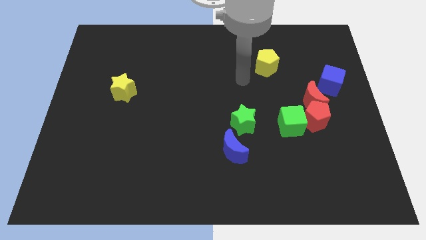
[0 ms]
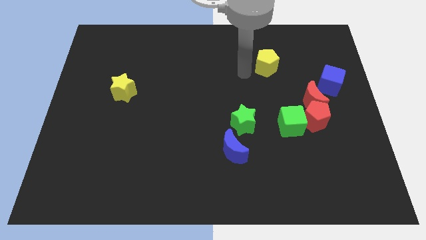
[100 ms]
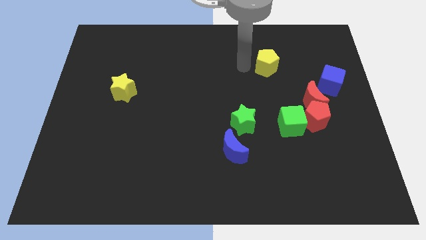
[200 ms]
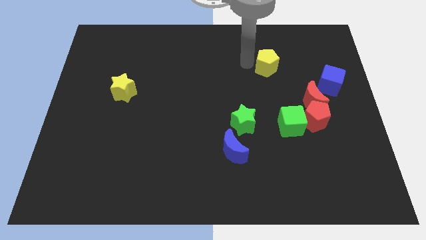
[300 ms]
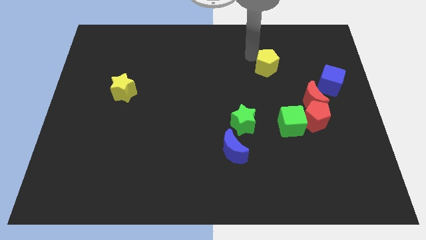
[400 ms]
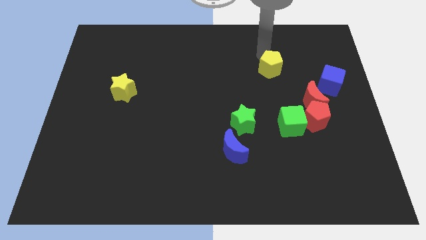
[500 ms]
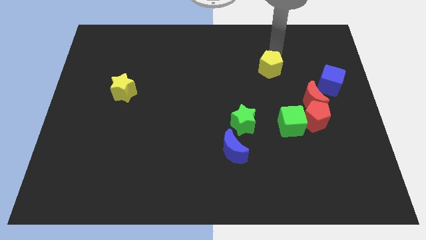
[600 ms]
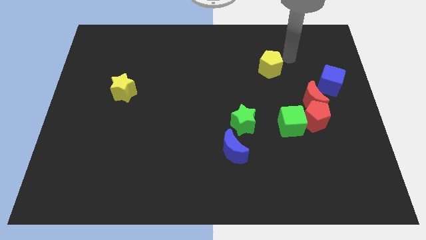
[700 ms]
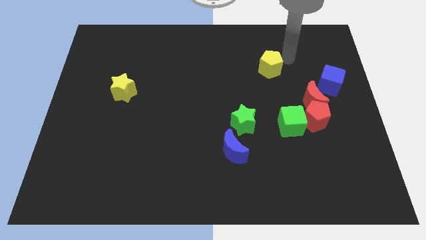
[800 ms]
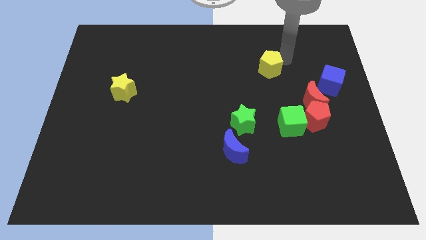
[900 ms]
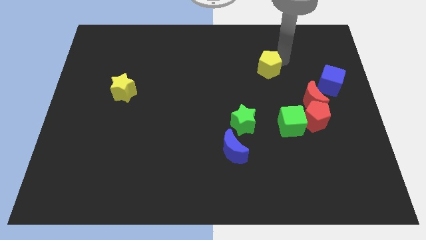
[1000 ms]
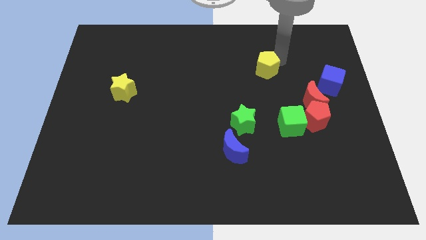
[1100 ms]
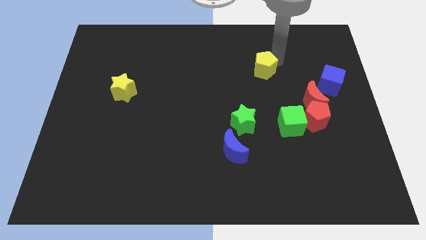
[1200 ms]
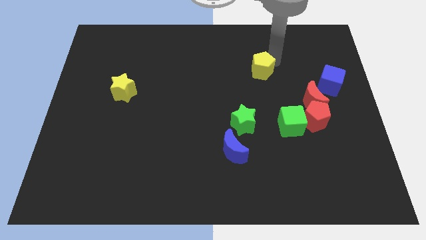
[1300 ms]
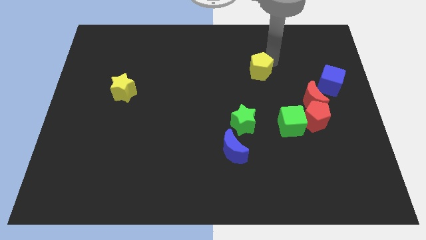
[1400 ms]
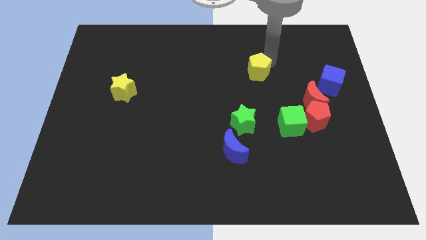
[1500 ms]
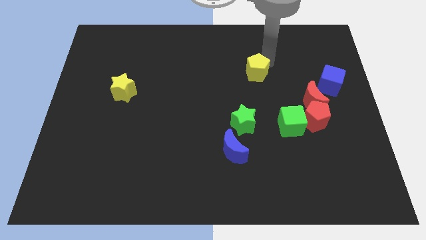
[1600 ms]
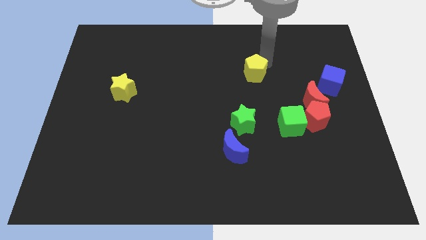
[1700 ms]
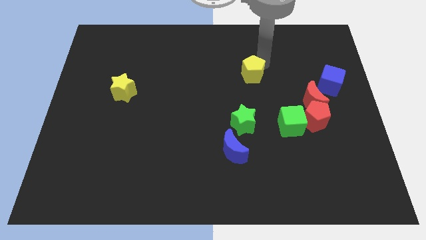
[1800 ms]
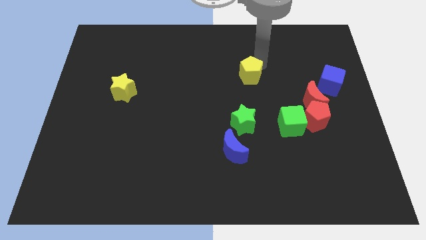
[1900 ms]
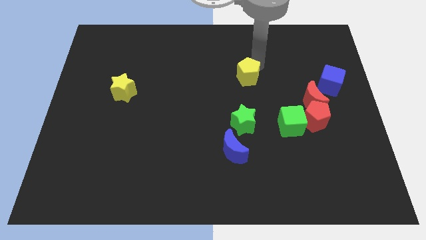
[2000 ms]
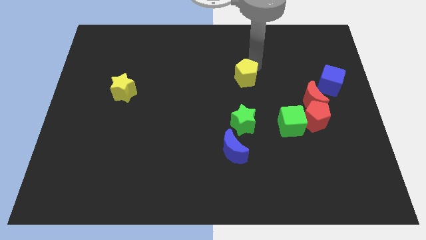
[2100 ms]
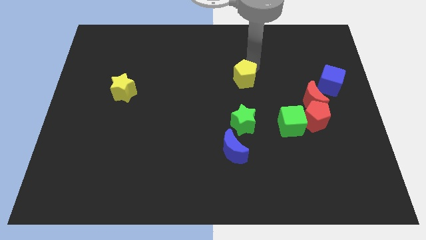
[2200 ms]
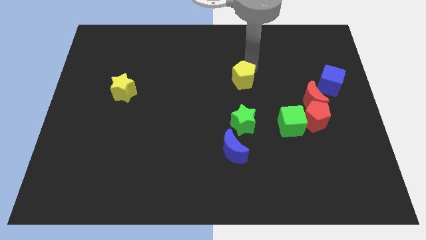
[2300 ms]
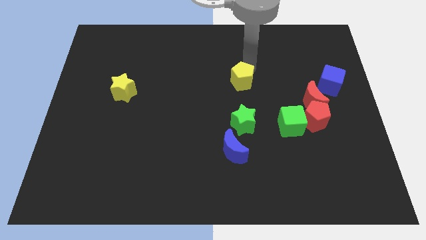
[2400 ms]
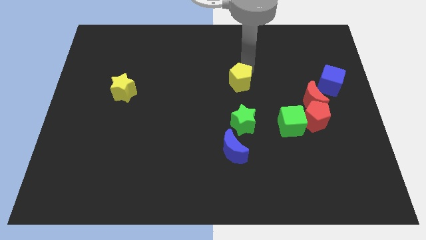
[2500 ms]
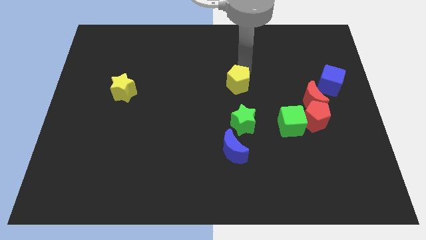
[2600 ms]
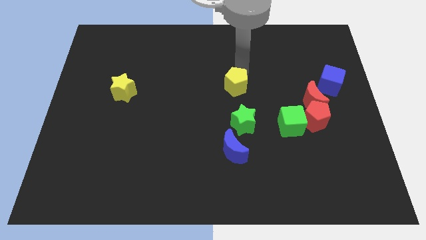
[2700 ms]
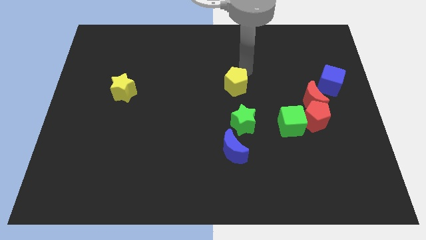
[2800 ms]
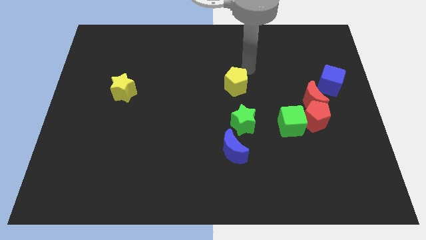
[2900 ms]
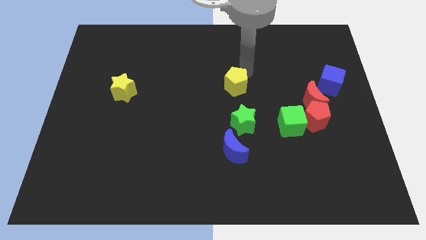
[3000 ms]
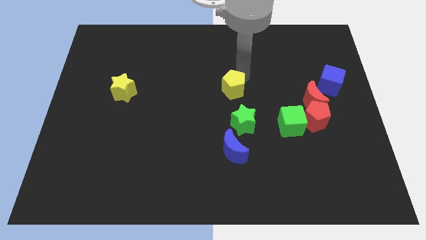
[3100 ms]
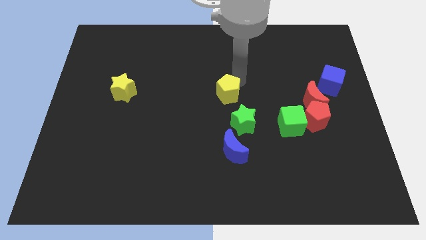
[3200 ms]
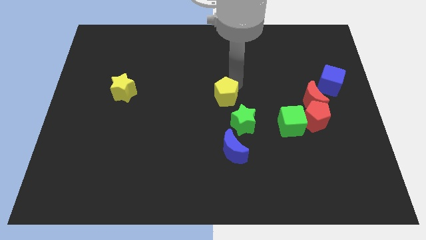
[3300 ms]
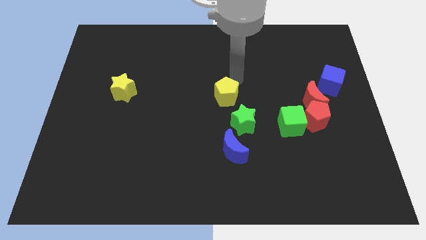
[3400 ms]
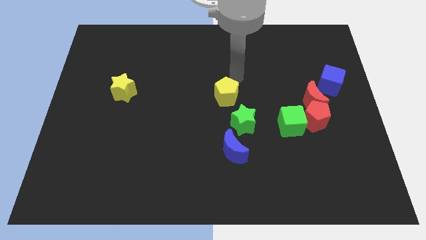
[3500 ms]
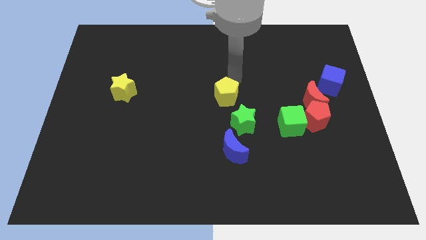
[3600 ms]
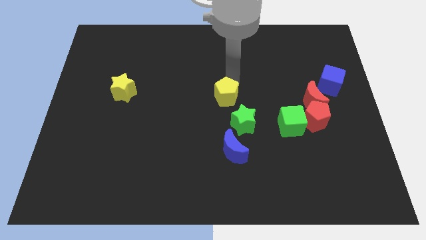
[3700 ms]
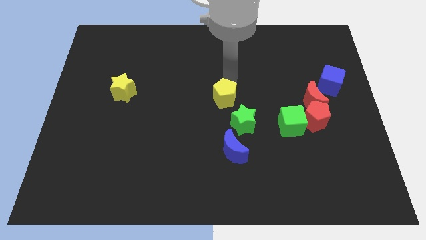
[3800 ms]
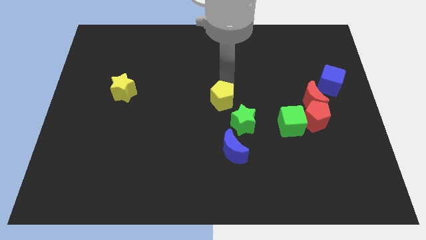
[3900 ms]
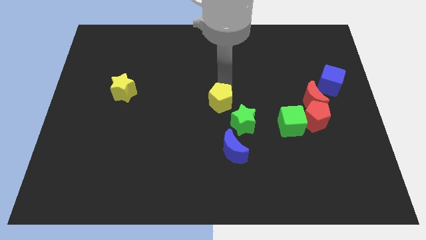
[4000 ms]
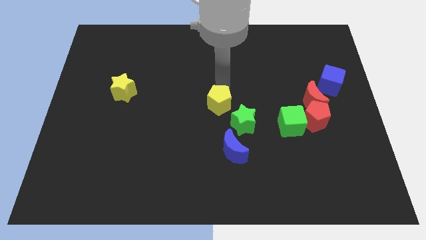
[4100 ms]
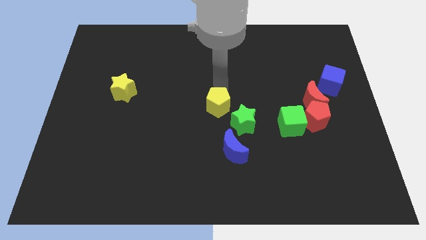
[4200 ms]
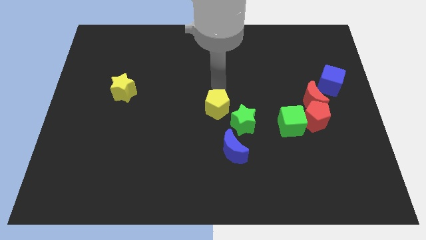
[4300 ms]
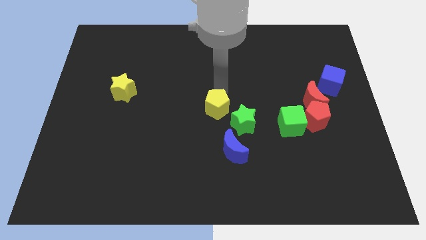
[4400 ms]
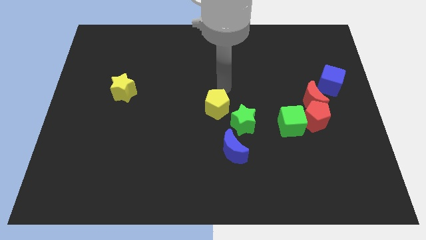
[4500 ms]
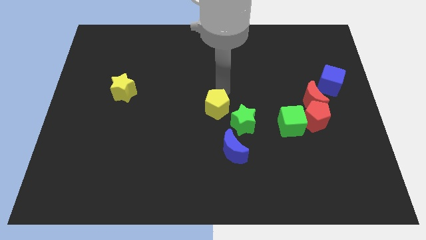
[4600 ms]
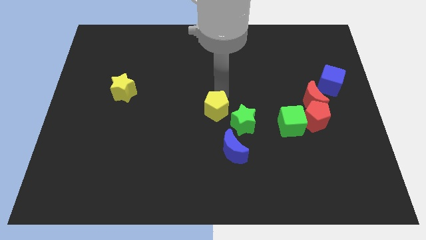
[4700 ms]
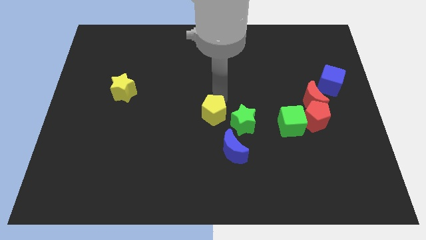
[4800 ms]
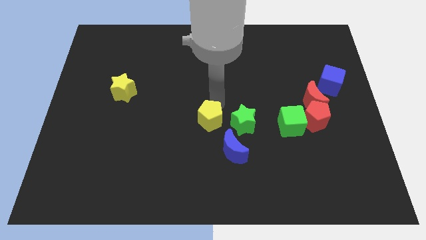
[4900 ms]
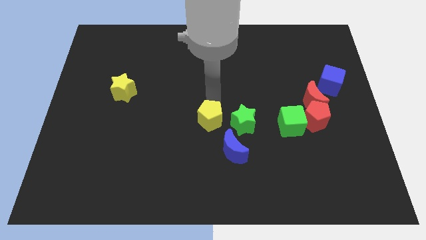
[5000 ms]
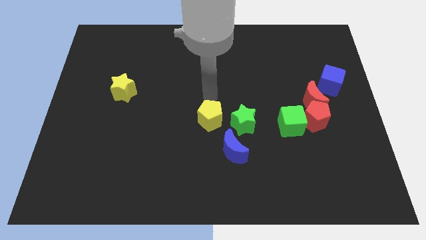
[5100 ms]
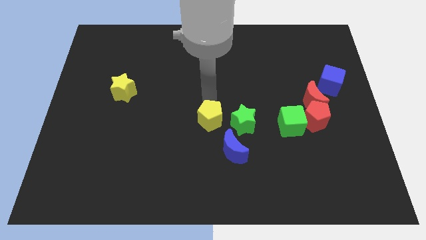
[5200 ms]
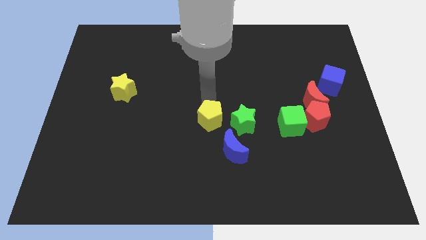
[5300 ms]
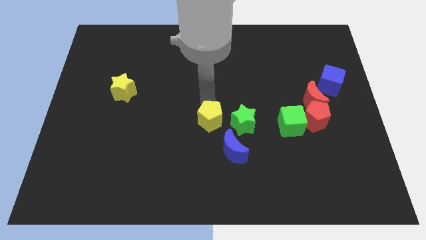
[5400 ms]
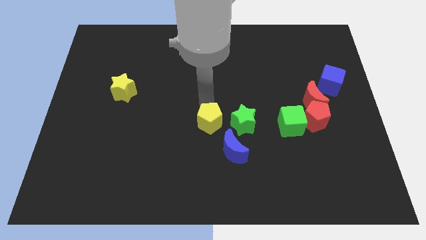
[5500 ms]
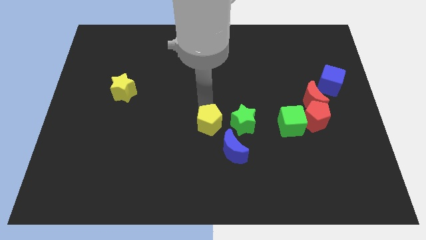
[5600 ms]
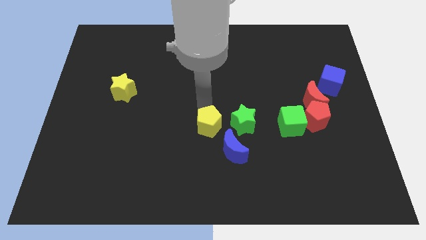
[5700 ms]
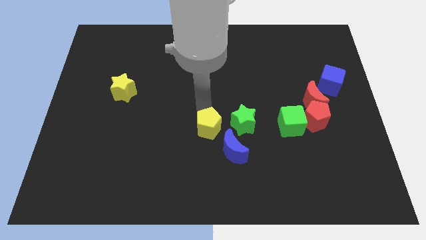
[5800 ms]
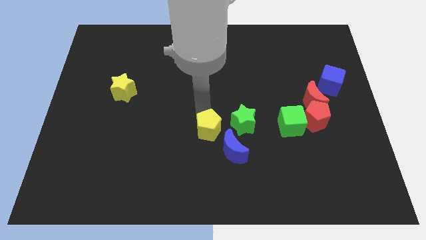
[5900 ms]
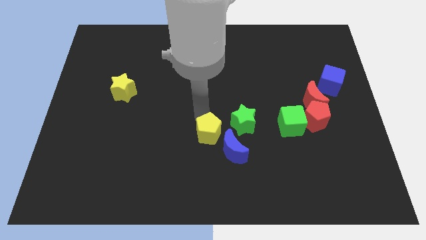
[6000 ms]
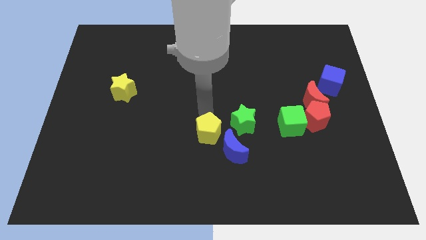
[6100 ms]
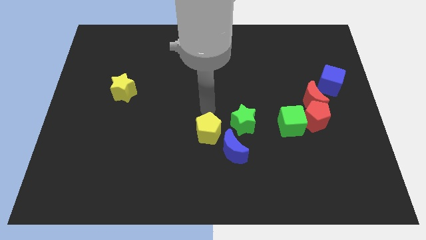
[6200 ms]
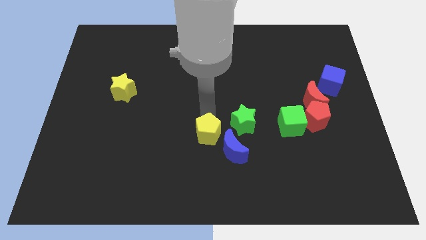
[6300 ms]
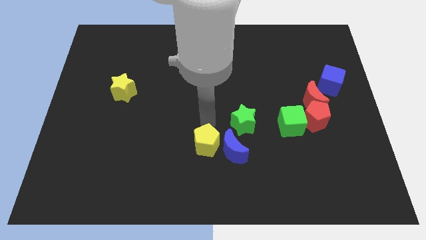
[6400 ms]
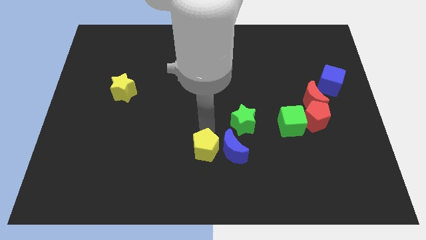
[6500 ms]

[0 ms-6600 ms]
put the yellow pentagon to the bottom left of the blue moon

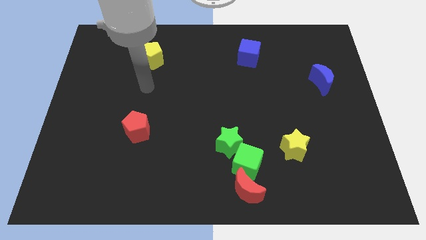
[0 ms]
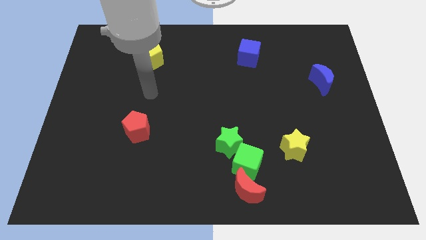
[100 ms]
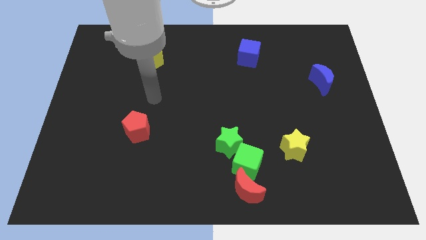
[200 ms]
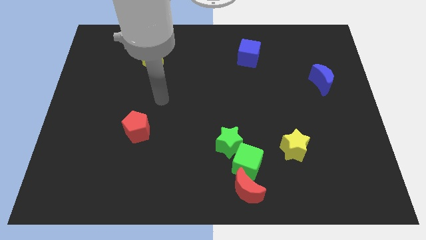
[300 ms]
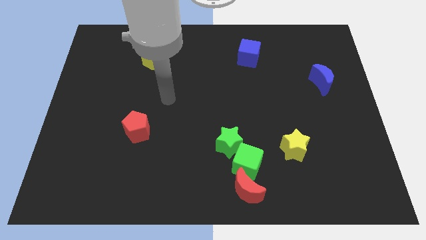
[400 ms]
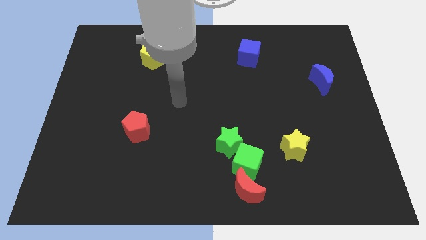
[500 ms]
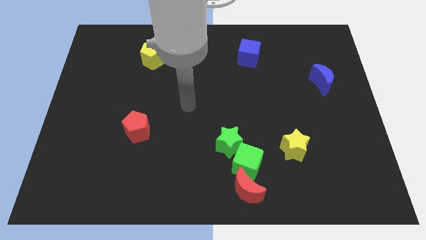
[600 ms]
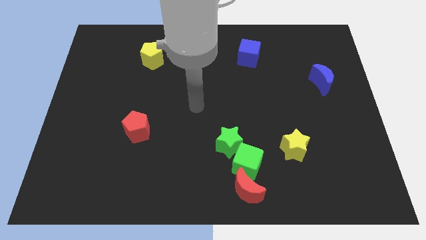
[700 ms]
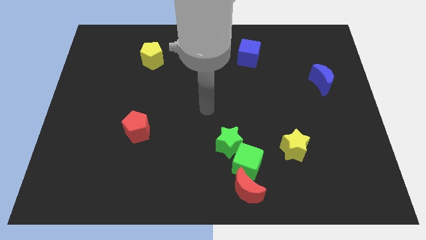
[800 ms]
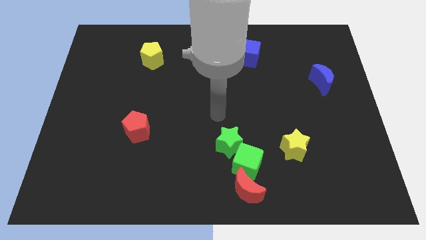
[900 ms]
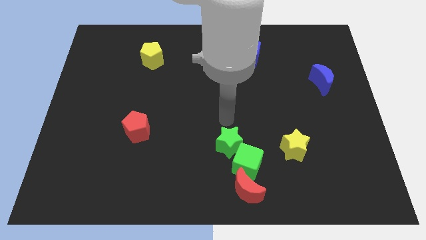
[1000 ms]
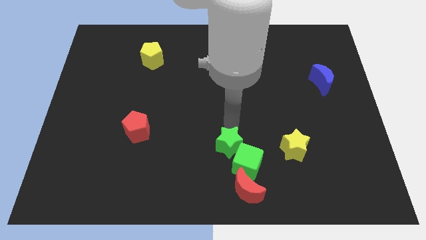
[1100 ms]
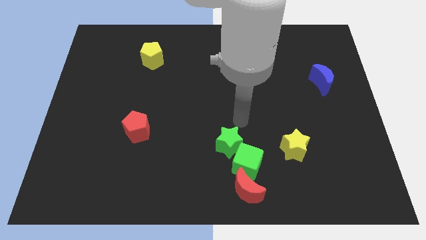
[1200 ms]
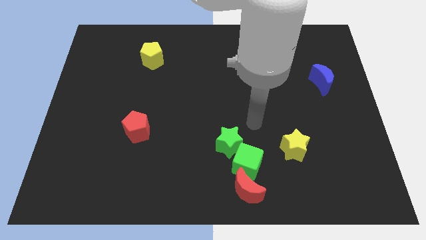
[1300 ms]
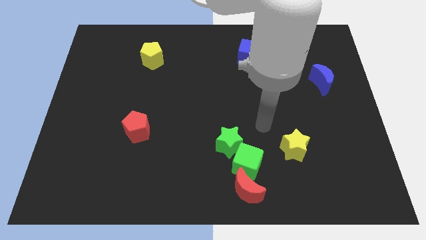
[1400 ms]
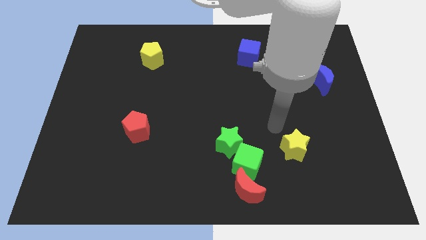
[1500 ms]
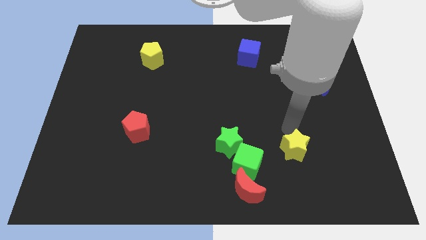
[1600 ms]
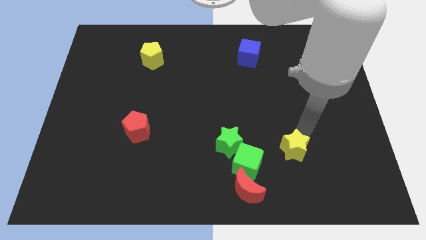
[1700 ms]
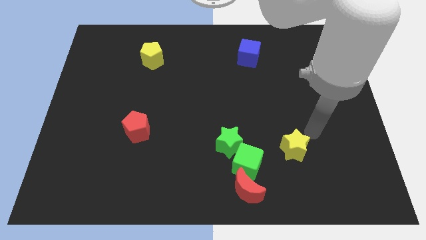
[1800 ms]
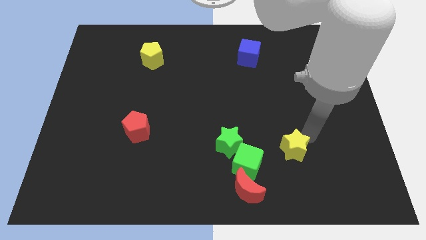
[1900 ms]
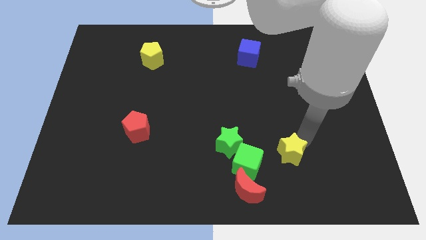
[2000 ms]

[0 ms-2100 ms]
move the yellow star diagonally up and to the right of the red moon
